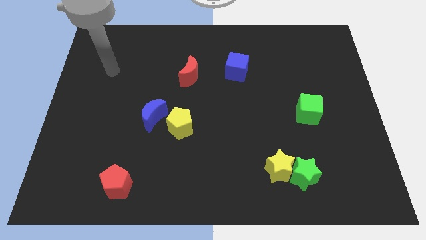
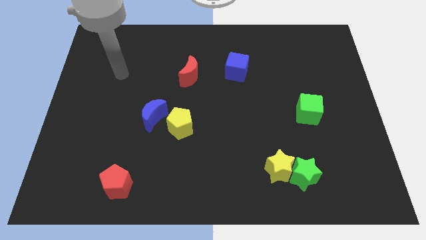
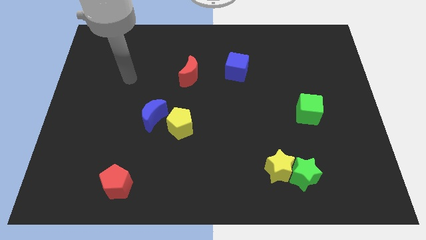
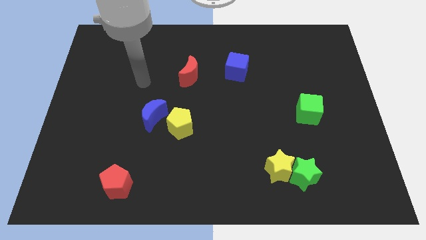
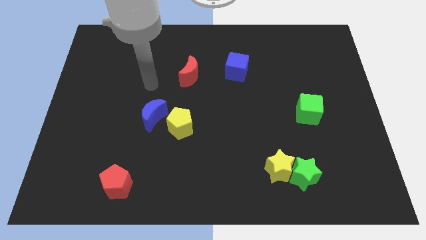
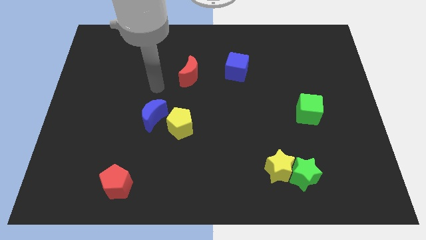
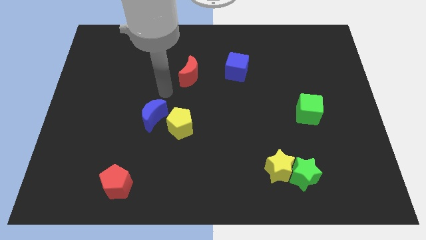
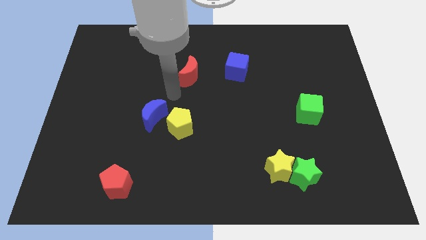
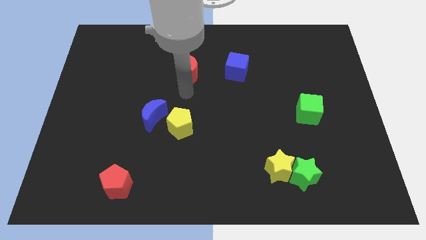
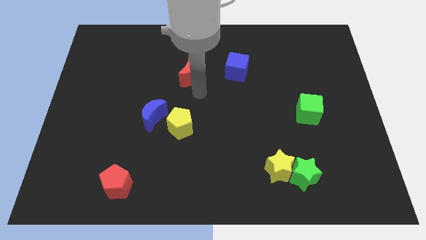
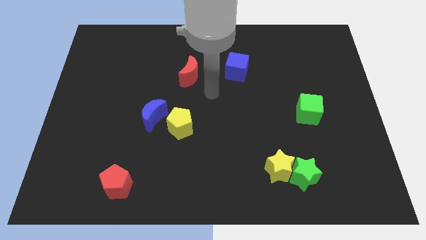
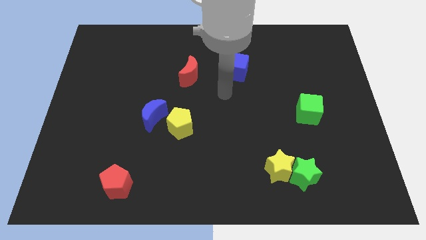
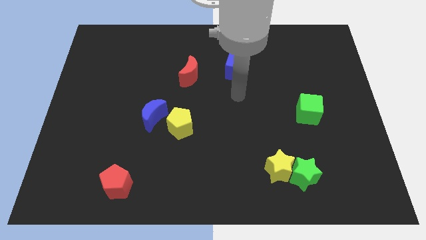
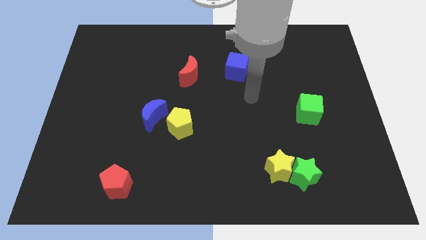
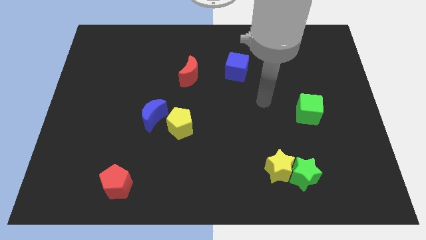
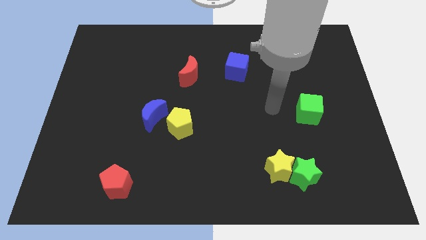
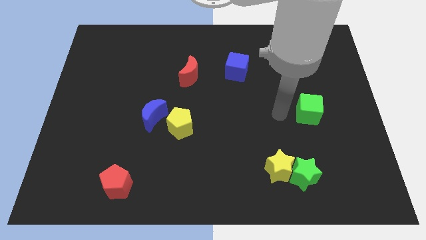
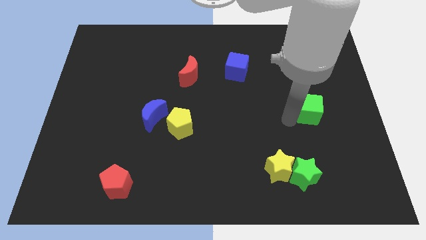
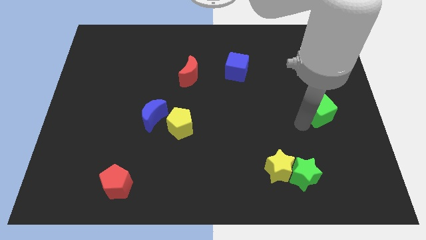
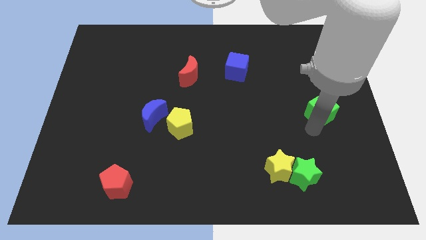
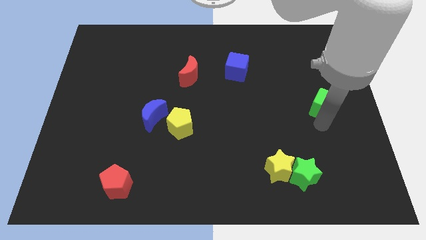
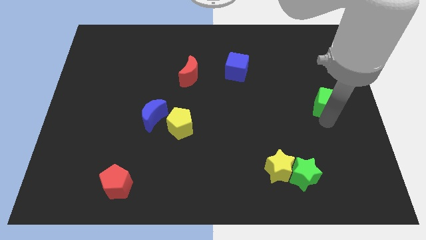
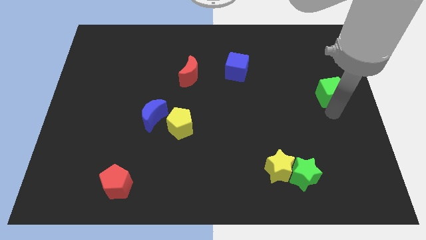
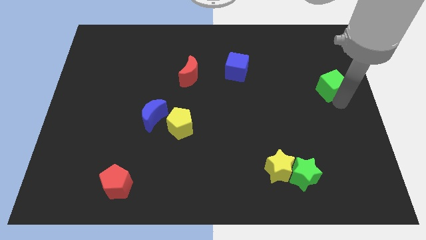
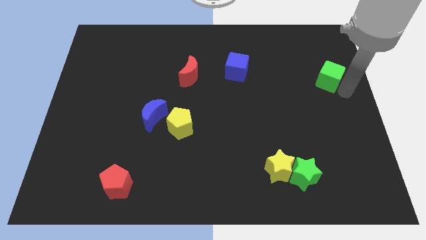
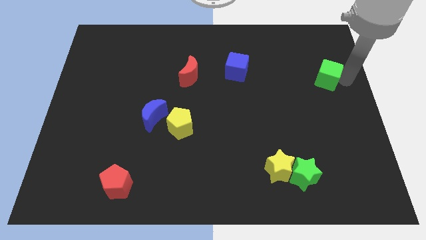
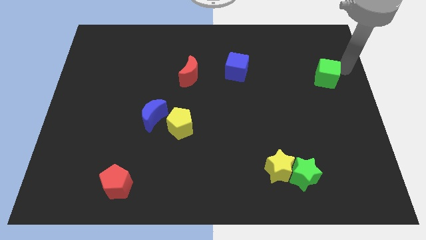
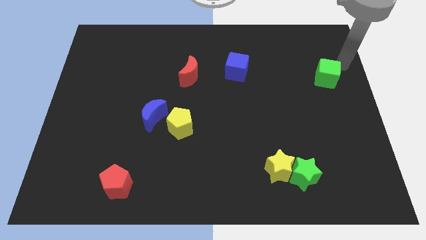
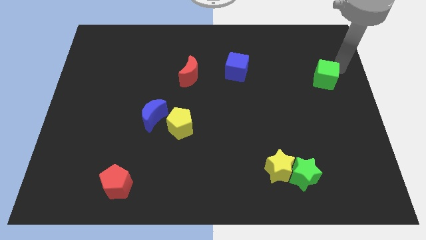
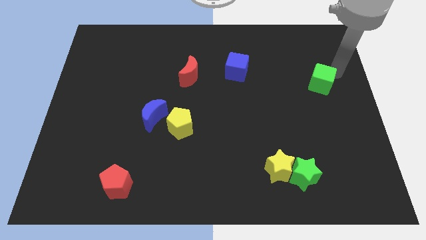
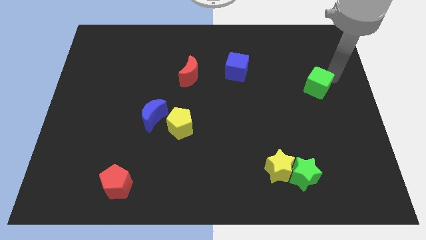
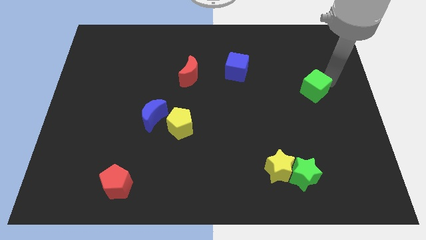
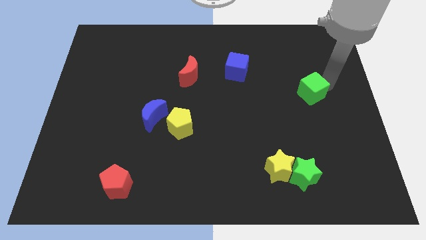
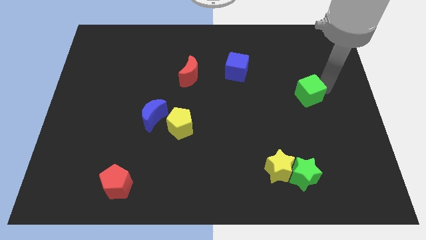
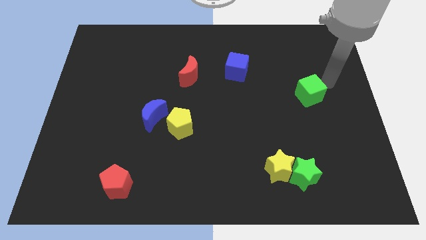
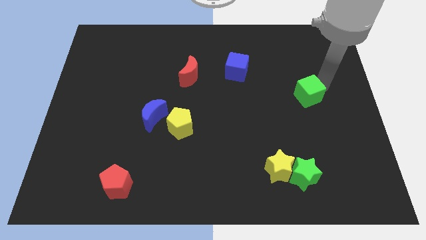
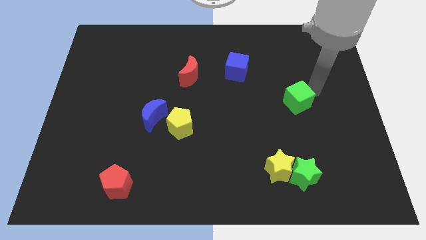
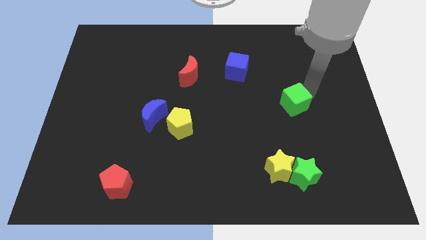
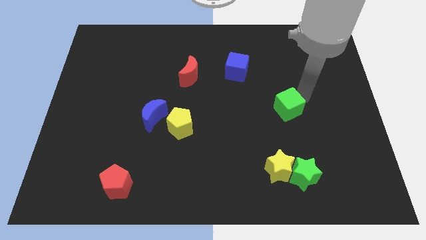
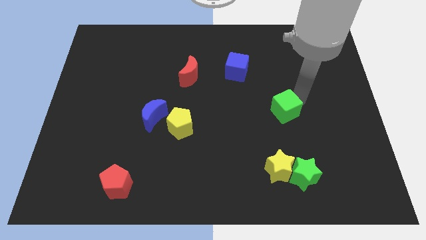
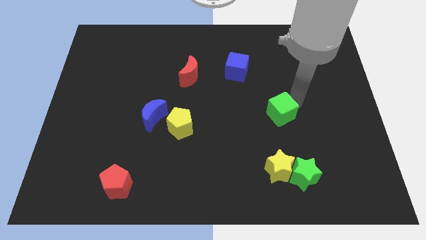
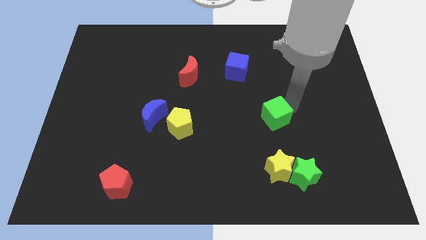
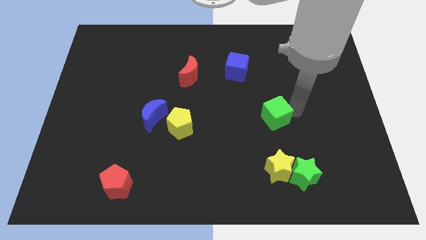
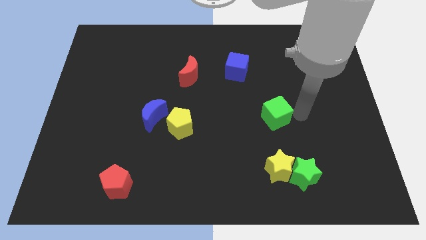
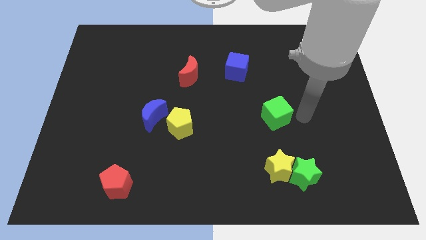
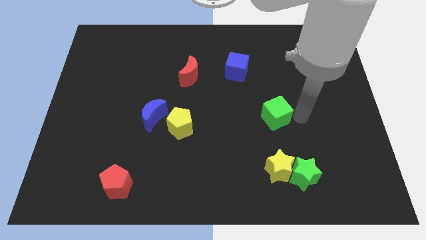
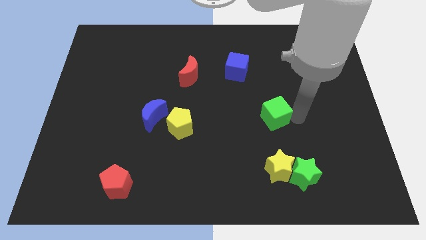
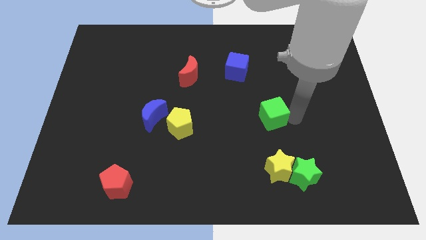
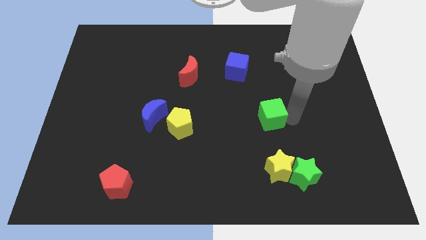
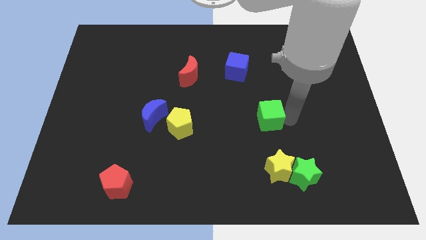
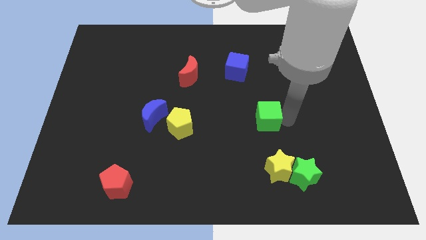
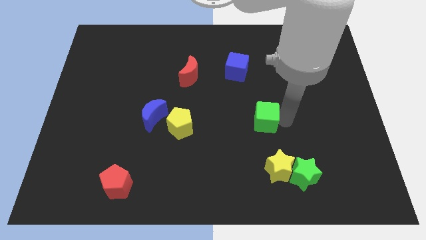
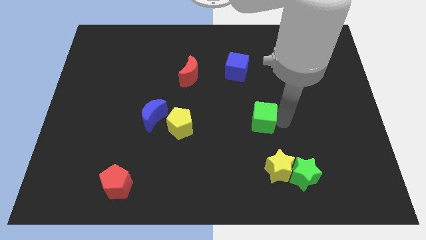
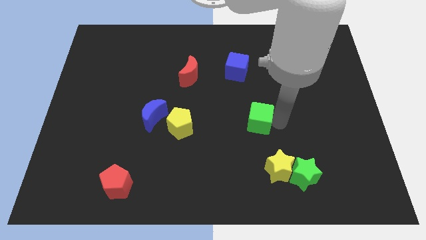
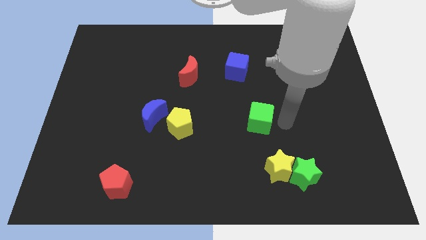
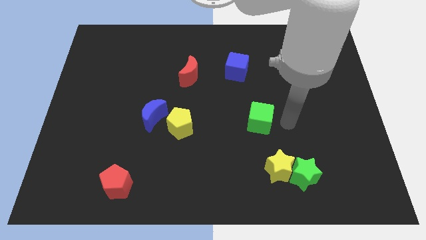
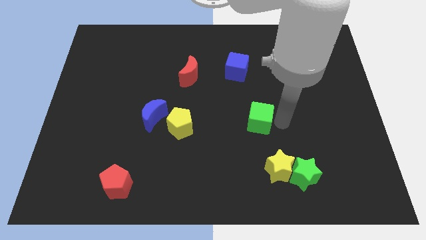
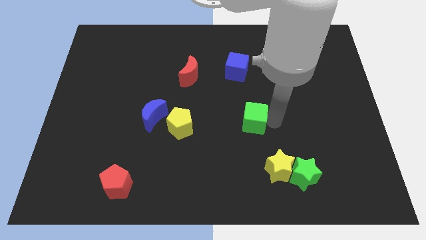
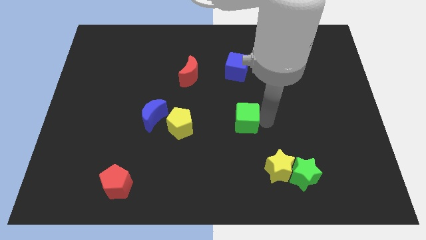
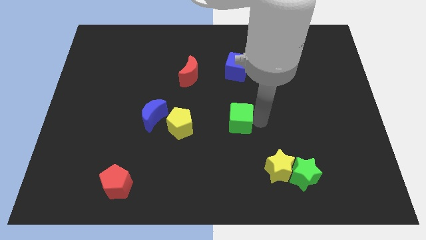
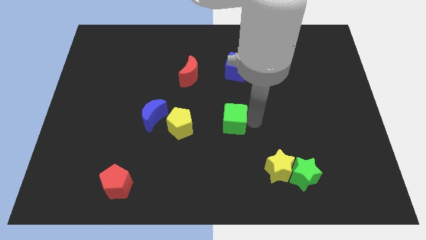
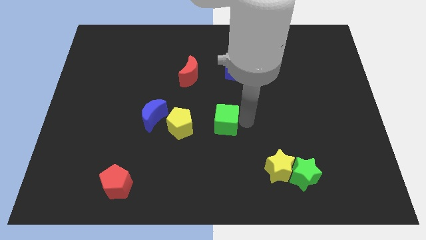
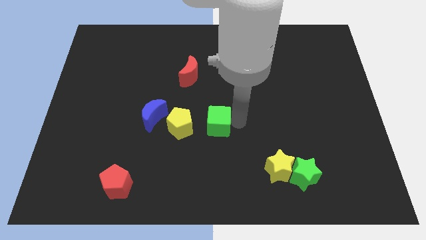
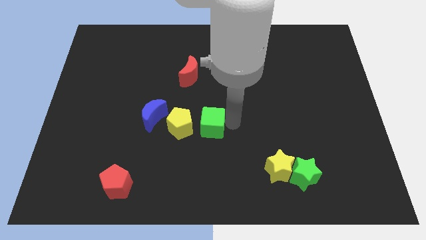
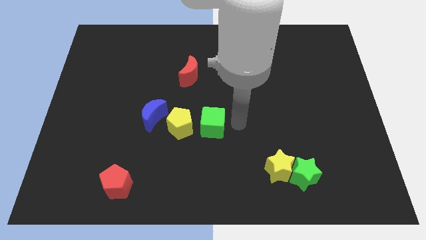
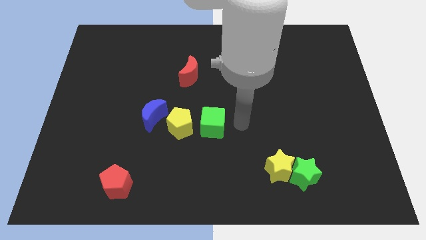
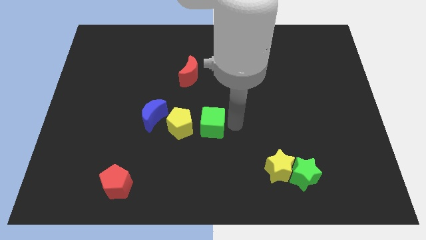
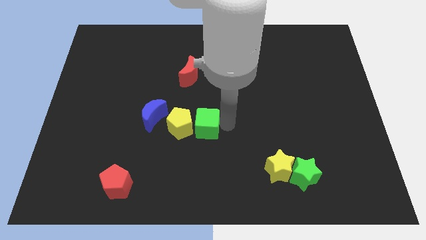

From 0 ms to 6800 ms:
move the green cube close to the yellow pentagon
